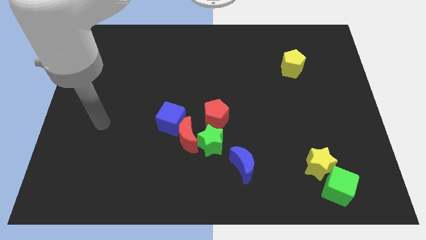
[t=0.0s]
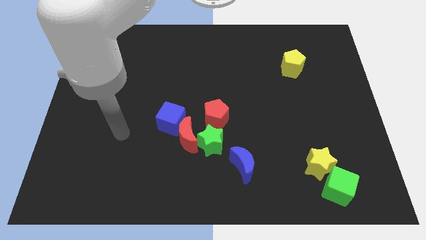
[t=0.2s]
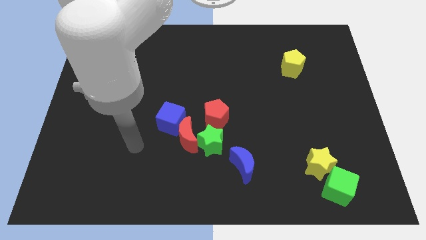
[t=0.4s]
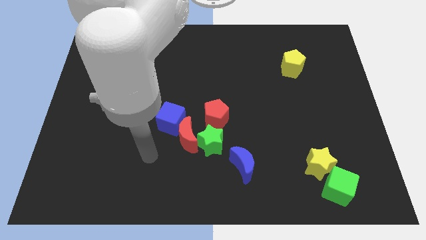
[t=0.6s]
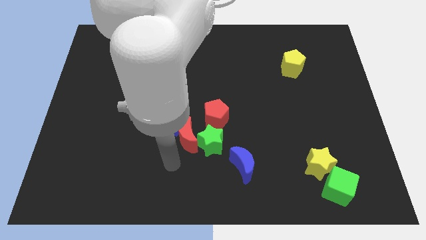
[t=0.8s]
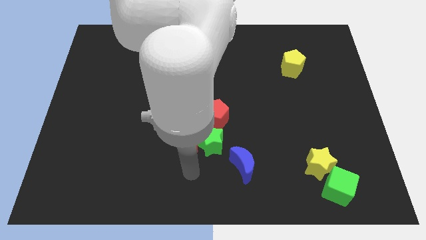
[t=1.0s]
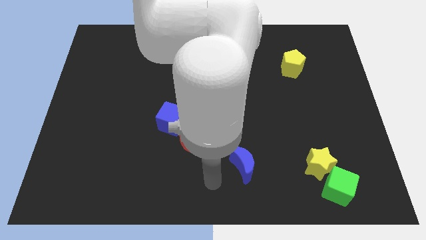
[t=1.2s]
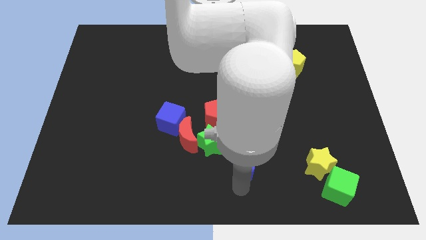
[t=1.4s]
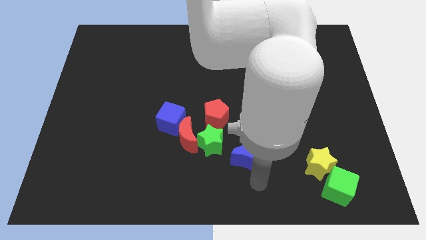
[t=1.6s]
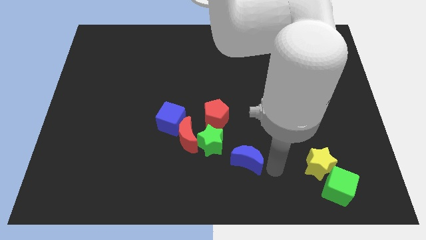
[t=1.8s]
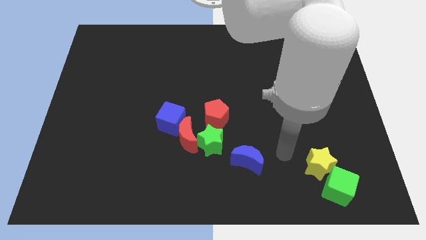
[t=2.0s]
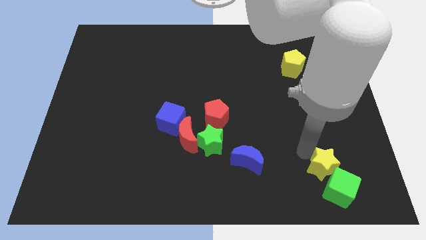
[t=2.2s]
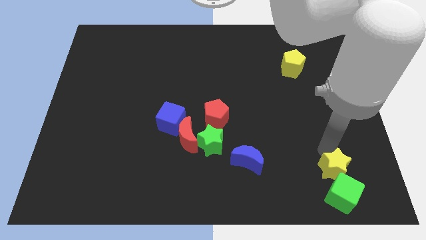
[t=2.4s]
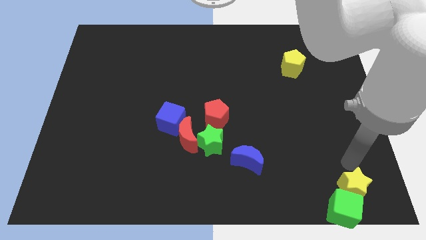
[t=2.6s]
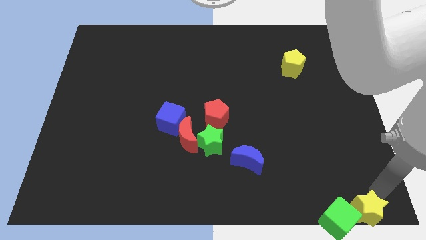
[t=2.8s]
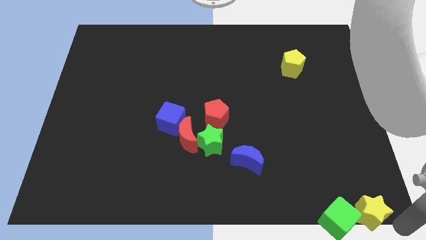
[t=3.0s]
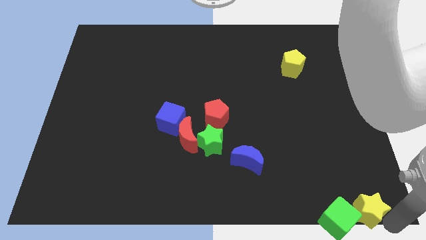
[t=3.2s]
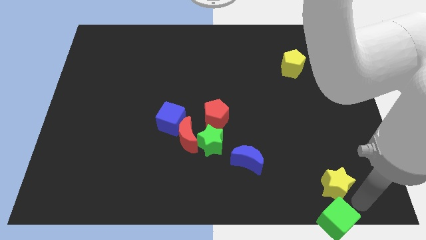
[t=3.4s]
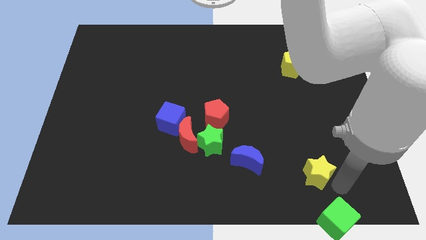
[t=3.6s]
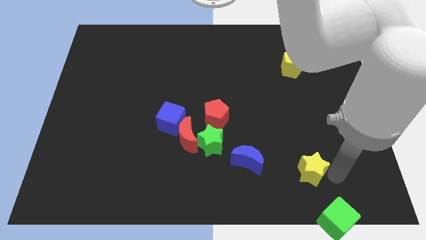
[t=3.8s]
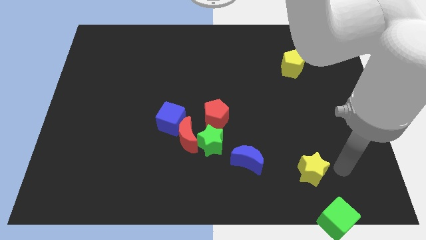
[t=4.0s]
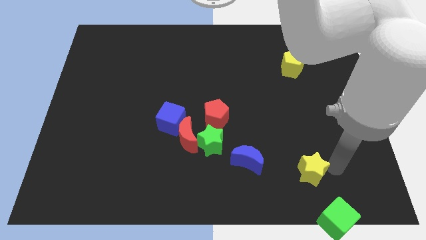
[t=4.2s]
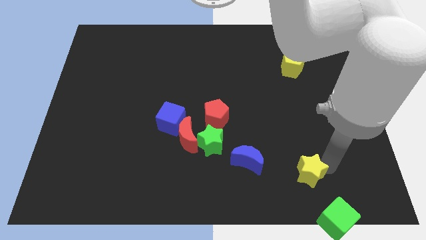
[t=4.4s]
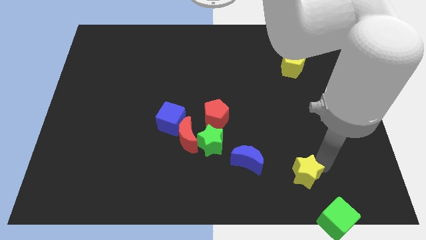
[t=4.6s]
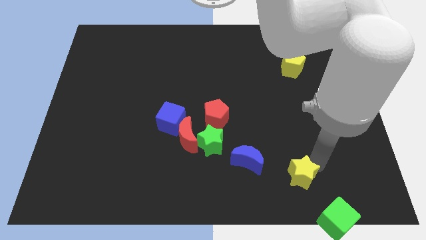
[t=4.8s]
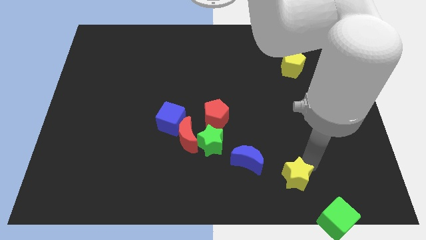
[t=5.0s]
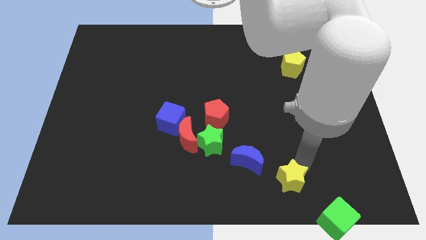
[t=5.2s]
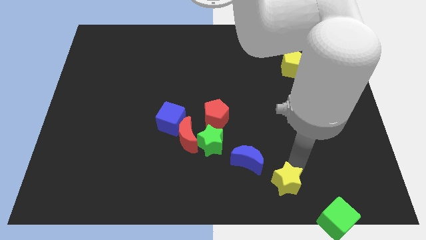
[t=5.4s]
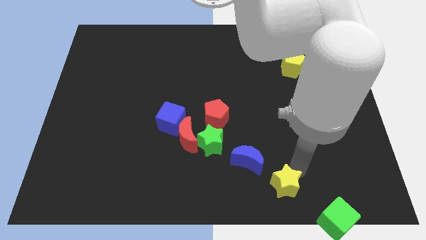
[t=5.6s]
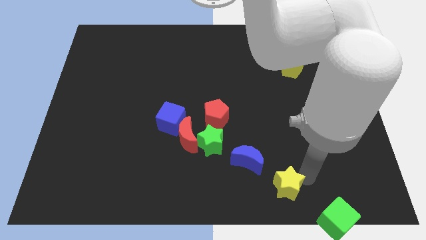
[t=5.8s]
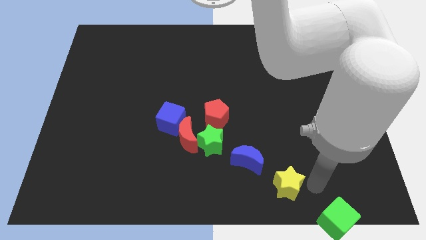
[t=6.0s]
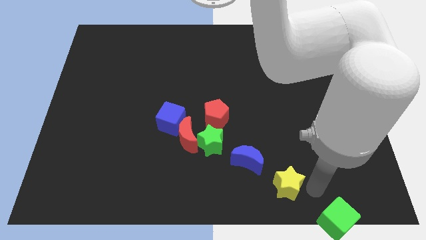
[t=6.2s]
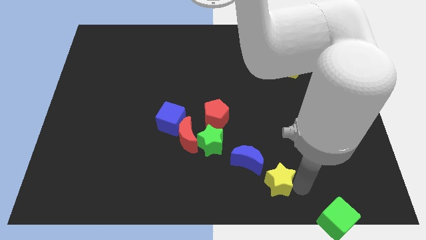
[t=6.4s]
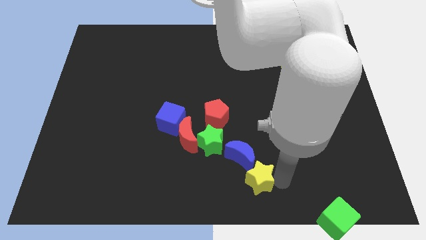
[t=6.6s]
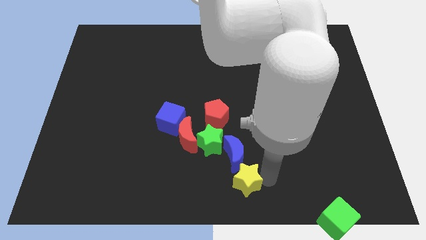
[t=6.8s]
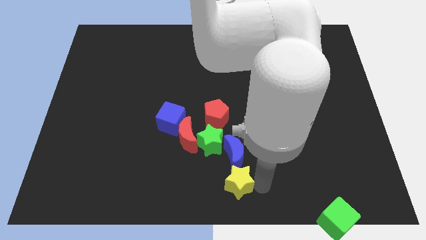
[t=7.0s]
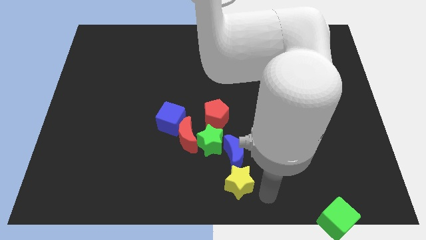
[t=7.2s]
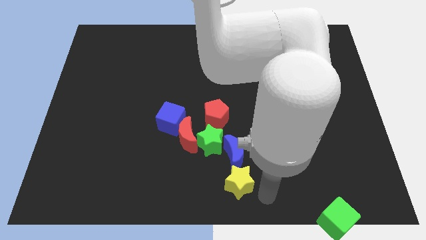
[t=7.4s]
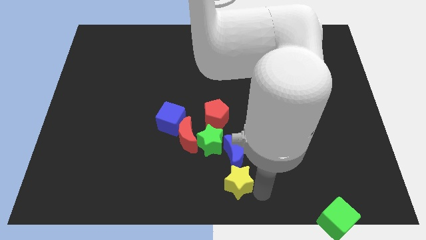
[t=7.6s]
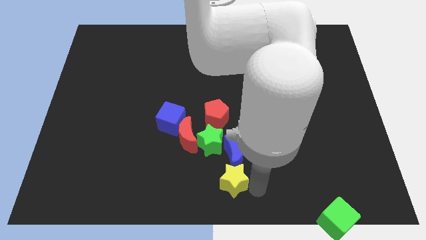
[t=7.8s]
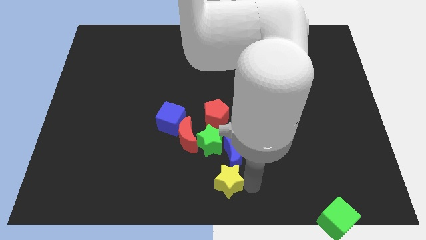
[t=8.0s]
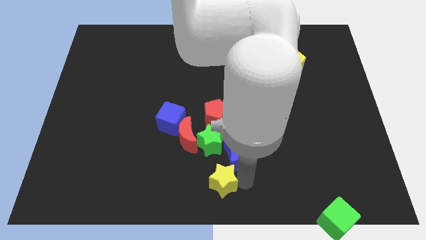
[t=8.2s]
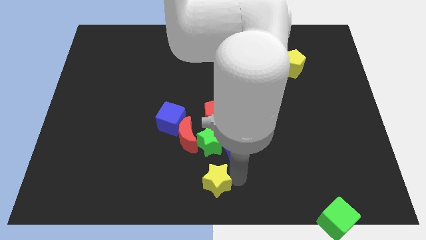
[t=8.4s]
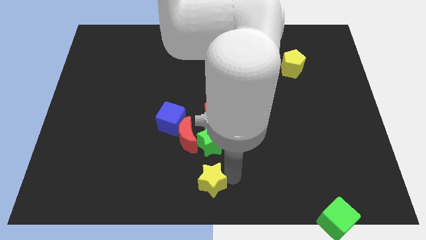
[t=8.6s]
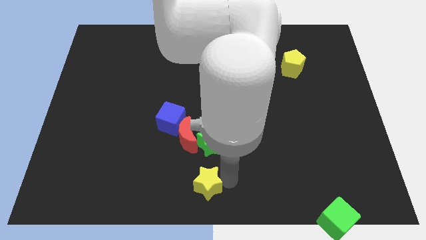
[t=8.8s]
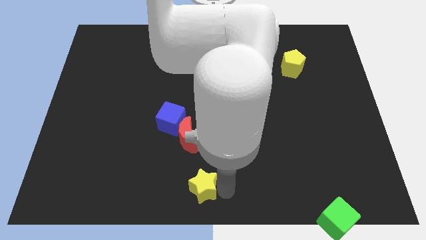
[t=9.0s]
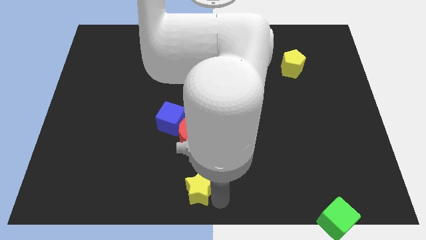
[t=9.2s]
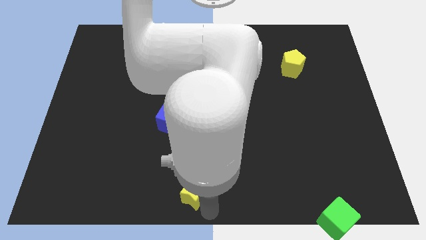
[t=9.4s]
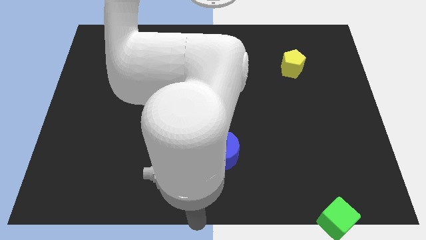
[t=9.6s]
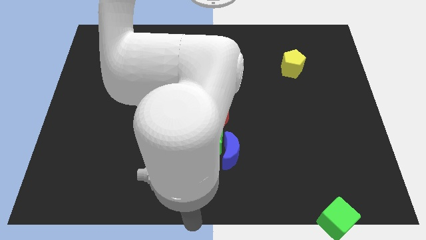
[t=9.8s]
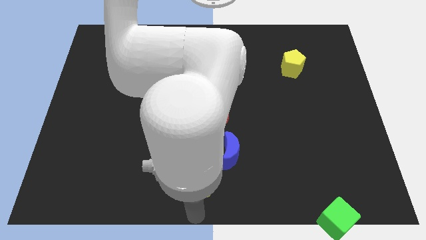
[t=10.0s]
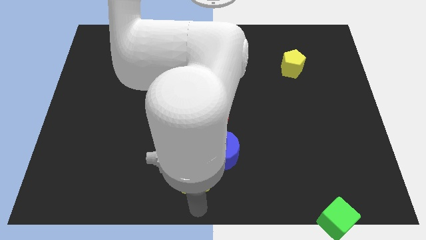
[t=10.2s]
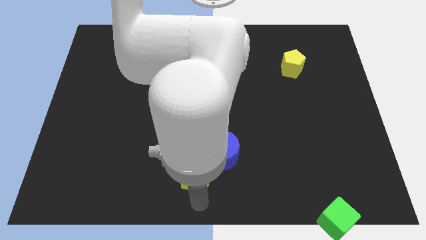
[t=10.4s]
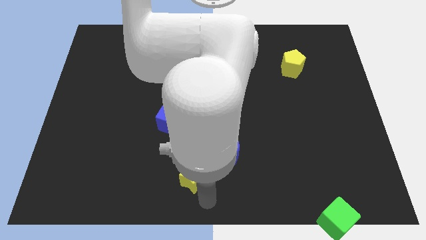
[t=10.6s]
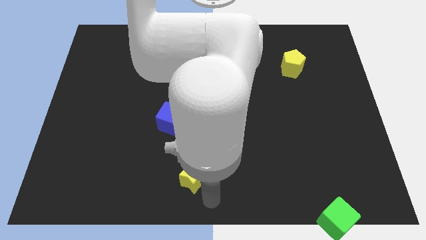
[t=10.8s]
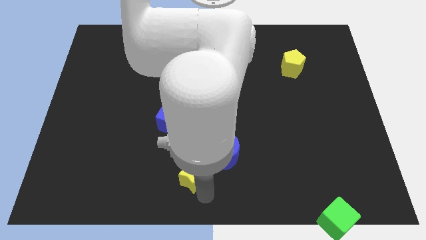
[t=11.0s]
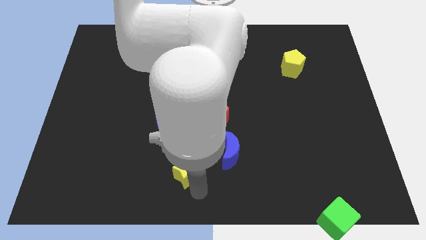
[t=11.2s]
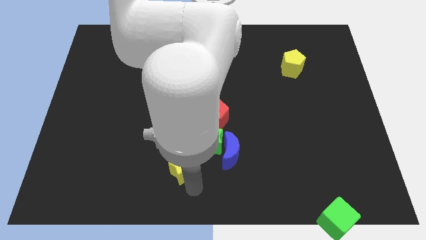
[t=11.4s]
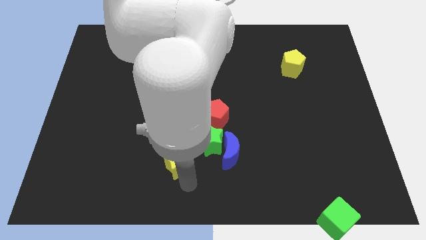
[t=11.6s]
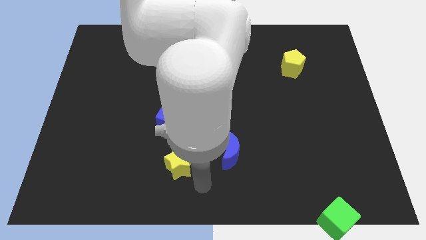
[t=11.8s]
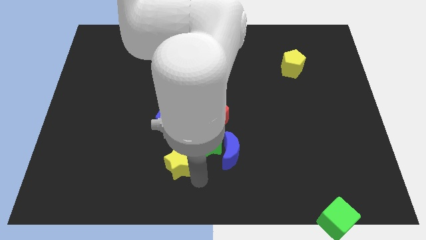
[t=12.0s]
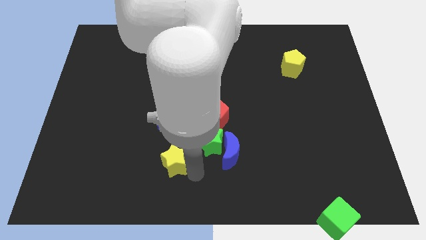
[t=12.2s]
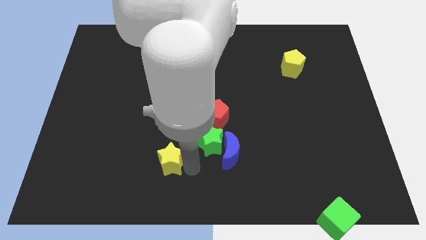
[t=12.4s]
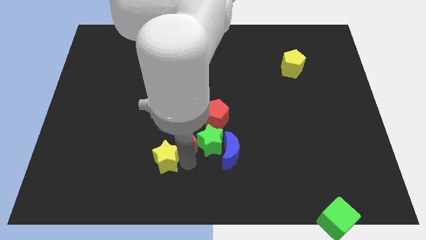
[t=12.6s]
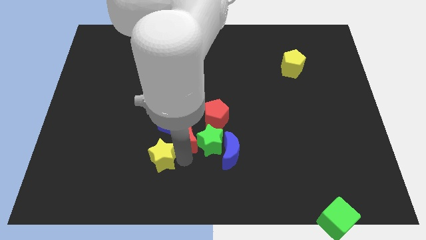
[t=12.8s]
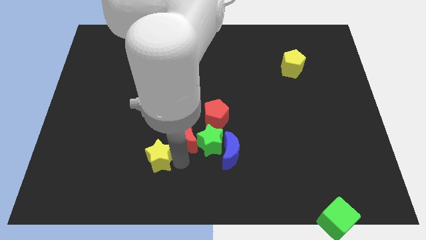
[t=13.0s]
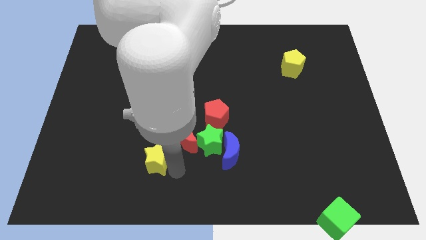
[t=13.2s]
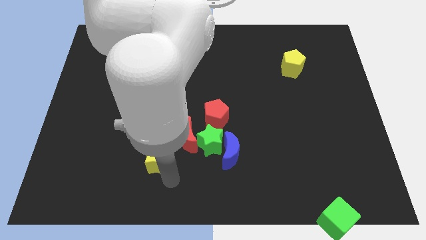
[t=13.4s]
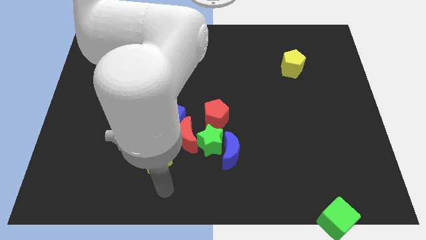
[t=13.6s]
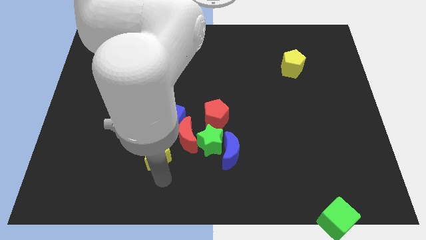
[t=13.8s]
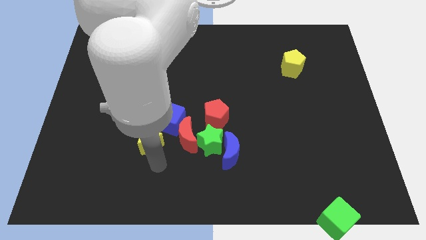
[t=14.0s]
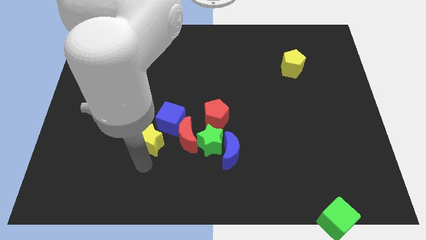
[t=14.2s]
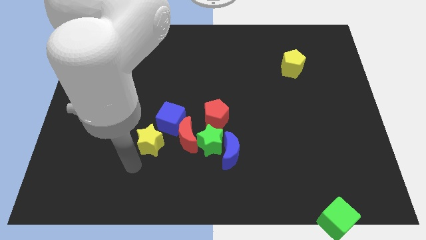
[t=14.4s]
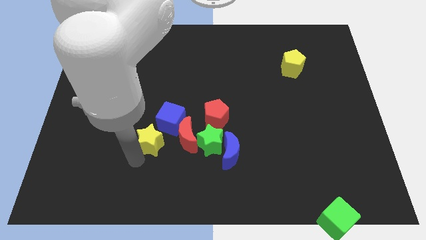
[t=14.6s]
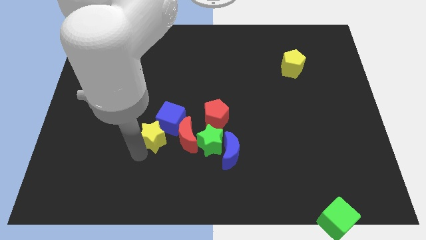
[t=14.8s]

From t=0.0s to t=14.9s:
move the yellow star to the blue cube

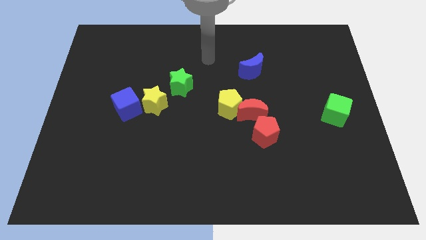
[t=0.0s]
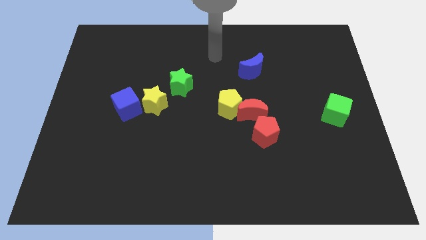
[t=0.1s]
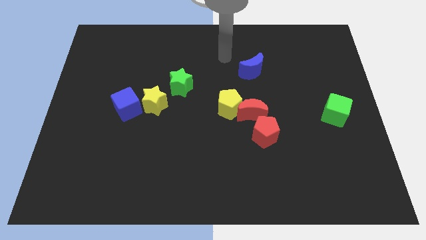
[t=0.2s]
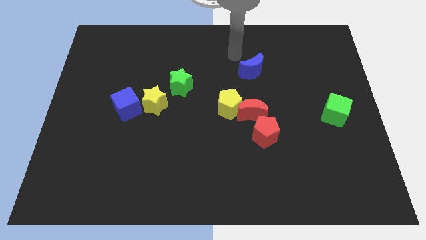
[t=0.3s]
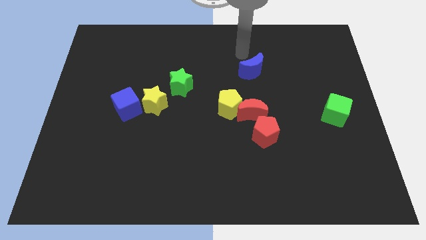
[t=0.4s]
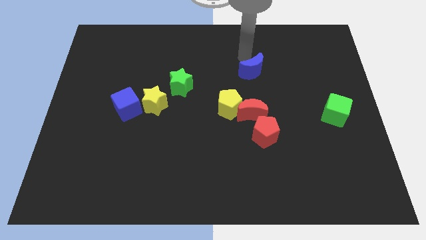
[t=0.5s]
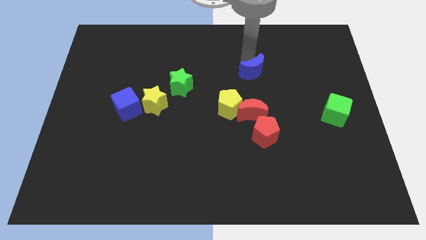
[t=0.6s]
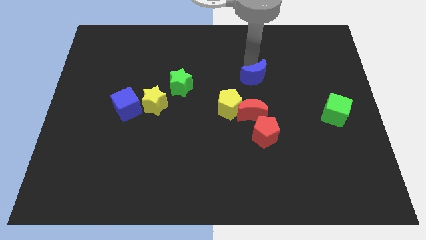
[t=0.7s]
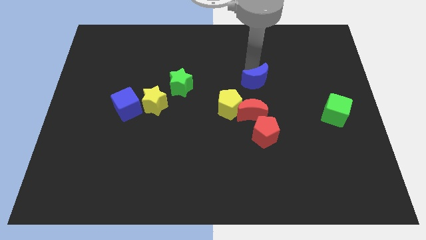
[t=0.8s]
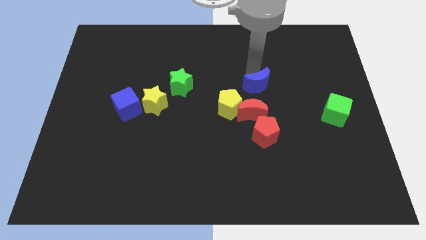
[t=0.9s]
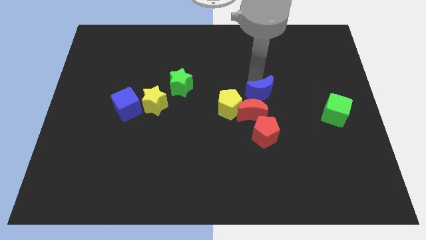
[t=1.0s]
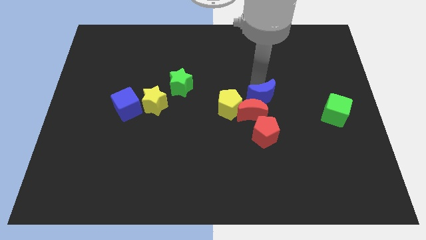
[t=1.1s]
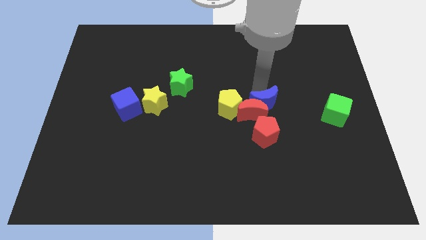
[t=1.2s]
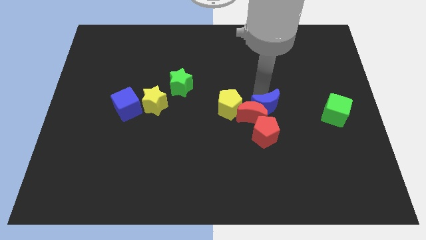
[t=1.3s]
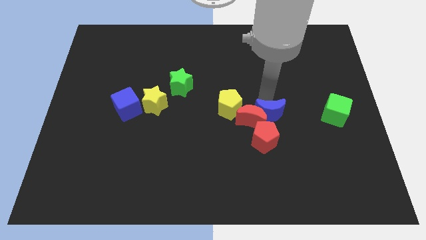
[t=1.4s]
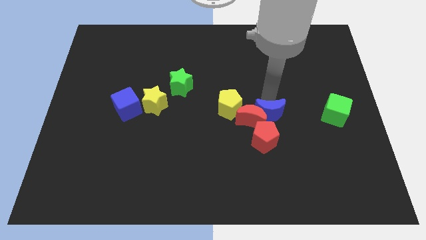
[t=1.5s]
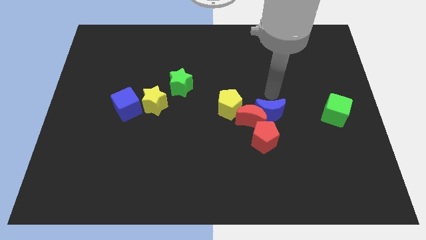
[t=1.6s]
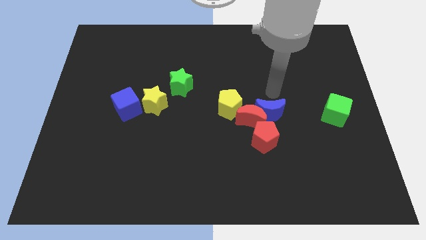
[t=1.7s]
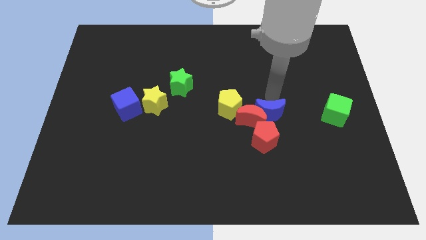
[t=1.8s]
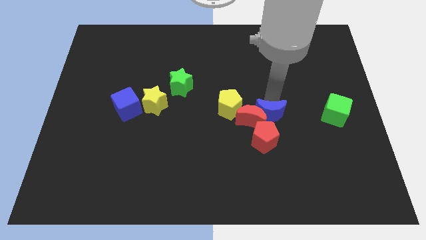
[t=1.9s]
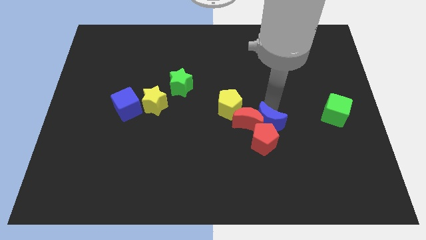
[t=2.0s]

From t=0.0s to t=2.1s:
push the blue moon towards the red pentagon
